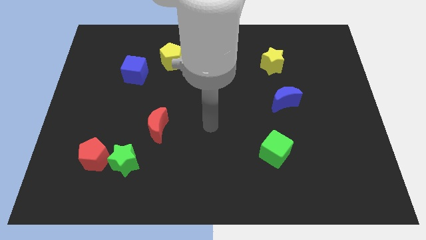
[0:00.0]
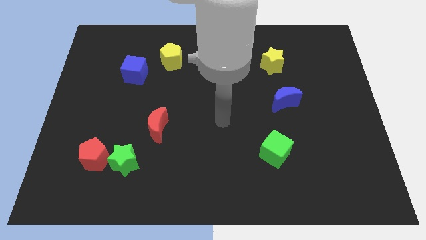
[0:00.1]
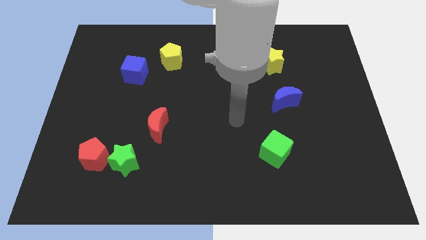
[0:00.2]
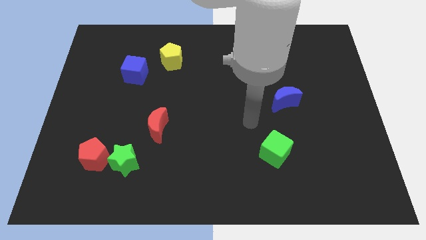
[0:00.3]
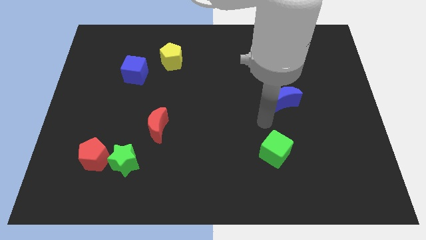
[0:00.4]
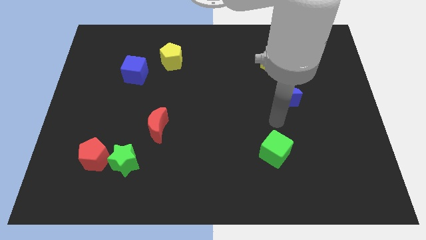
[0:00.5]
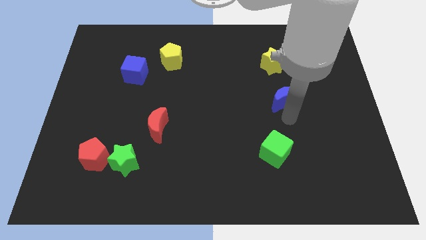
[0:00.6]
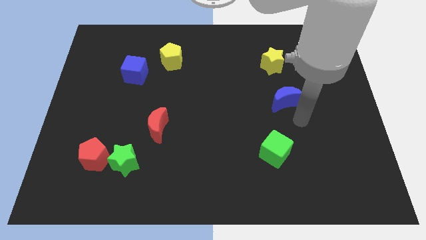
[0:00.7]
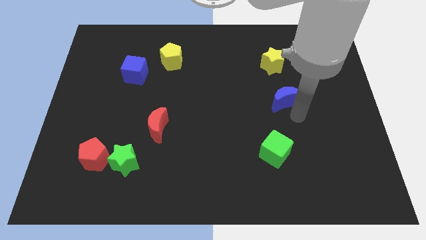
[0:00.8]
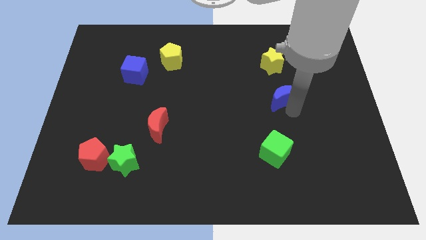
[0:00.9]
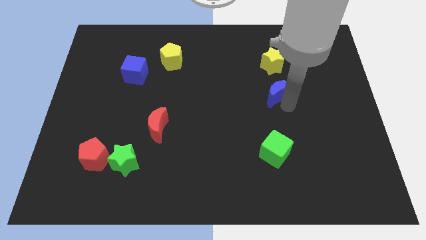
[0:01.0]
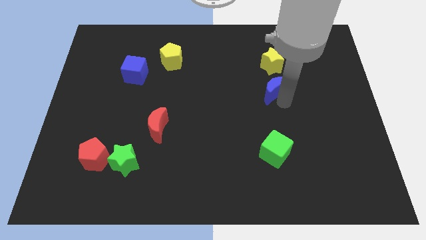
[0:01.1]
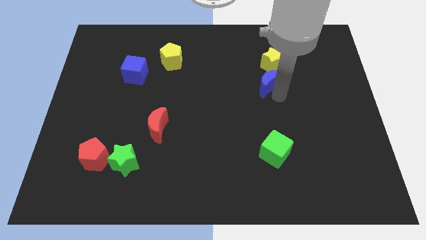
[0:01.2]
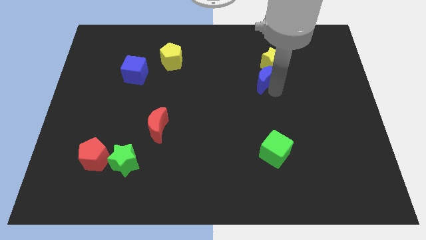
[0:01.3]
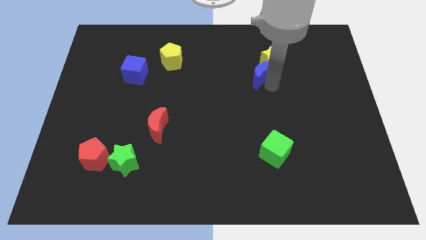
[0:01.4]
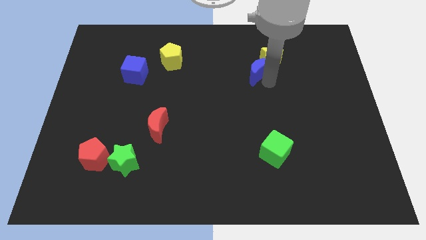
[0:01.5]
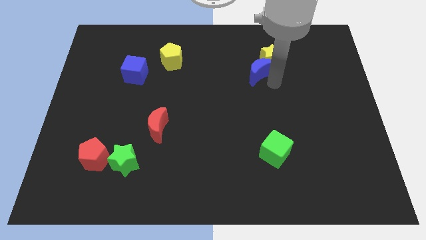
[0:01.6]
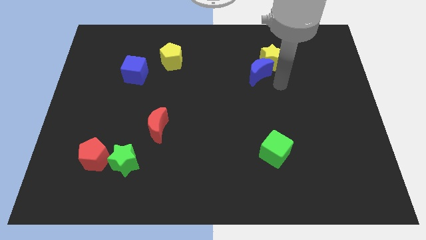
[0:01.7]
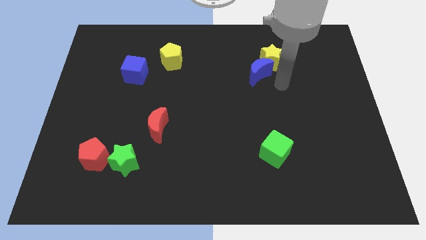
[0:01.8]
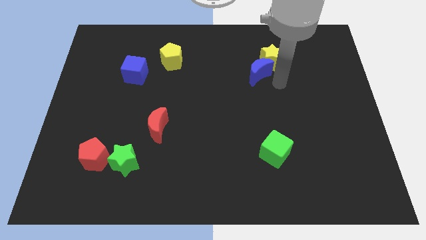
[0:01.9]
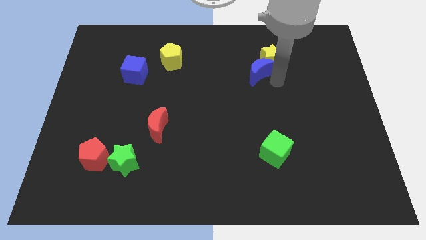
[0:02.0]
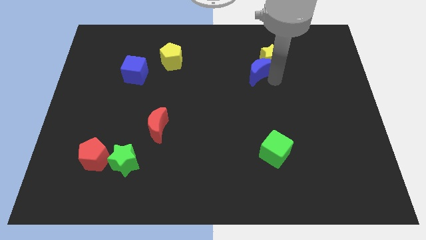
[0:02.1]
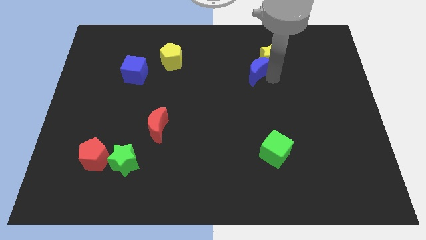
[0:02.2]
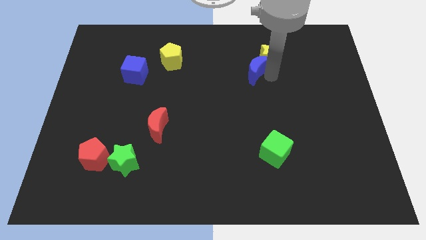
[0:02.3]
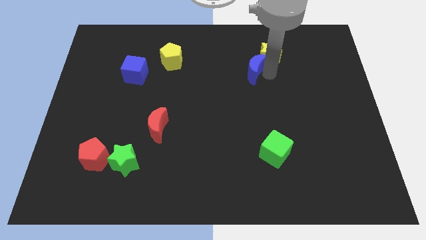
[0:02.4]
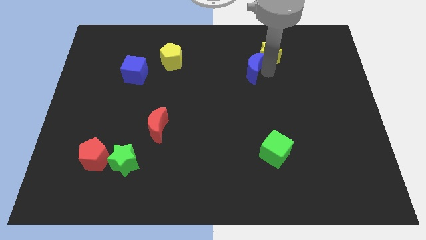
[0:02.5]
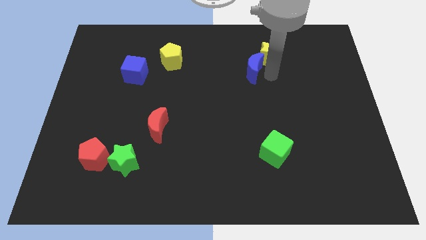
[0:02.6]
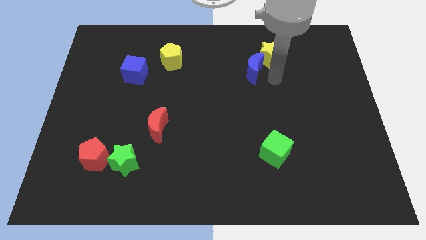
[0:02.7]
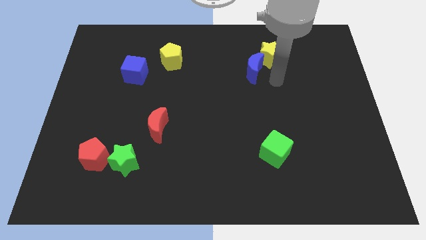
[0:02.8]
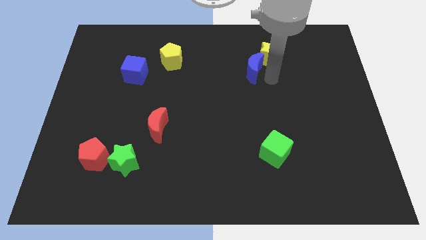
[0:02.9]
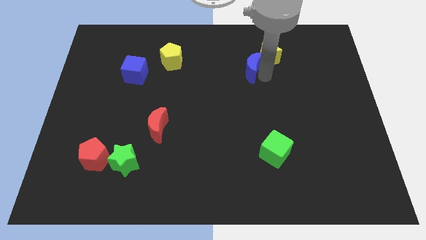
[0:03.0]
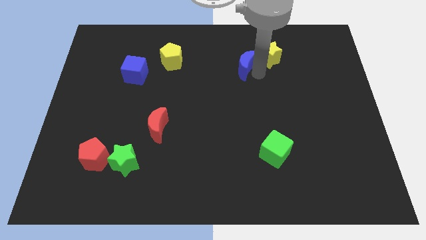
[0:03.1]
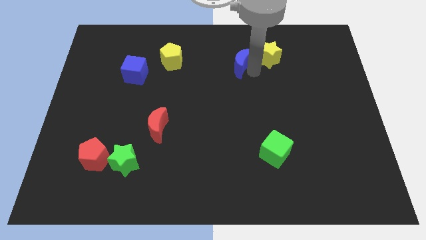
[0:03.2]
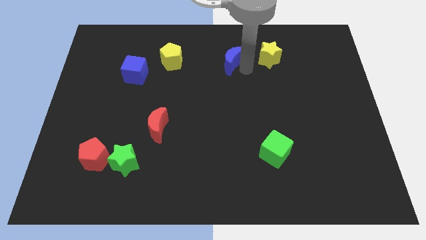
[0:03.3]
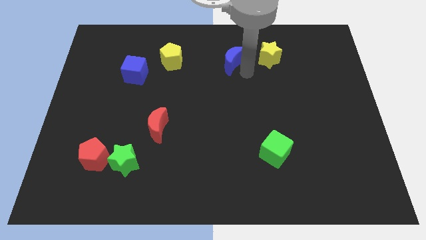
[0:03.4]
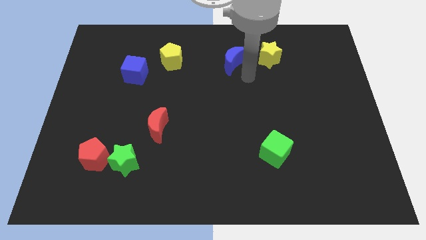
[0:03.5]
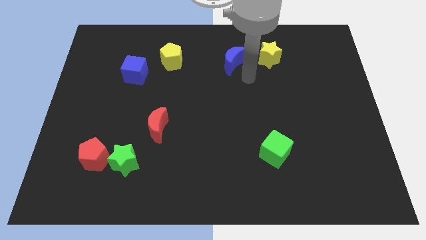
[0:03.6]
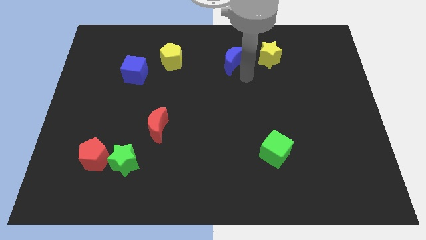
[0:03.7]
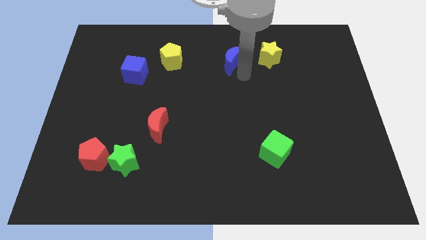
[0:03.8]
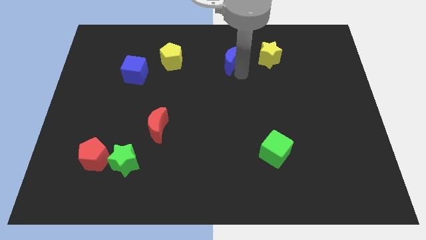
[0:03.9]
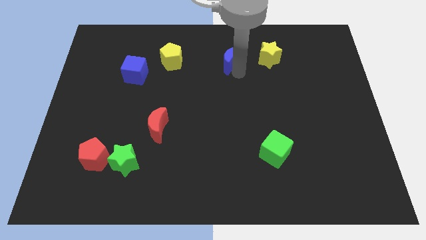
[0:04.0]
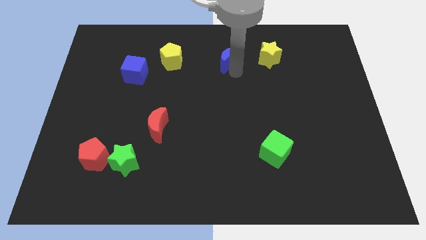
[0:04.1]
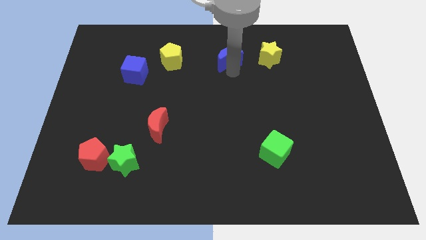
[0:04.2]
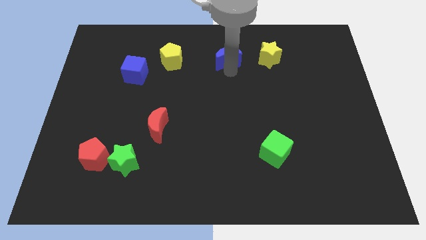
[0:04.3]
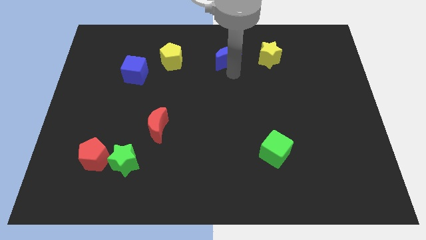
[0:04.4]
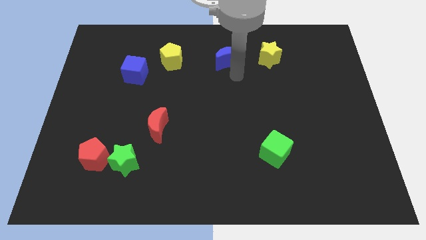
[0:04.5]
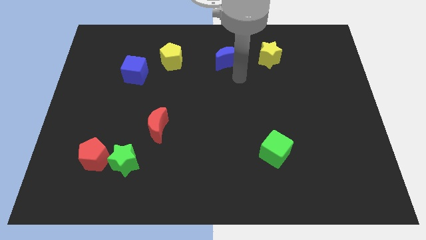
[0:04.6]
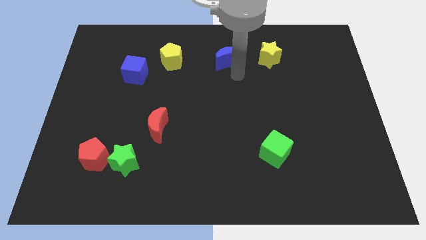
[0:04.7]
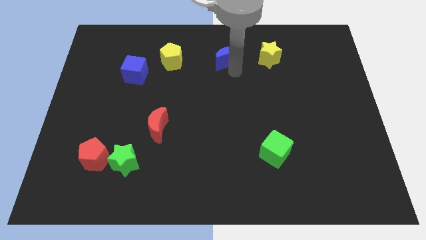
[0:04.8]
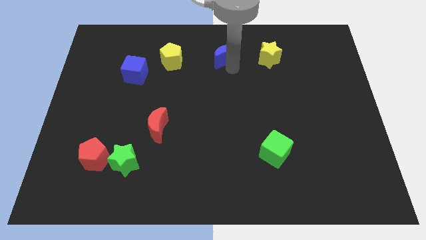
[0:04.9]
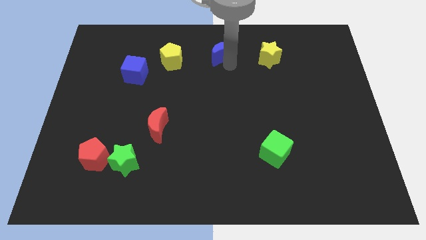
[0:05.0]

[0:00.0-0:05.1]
put the blue moon to the top side

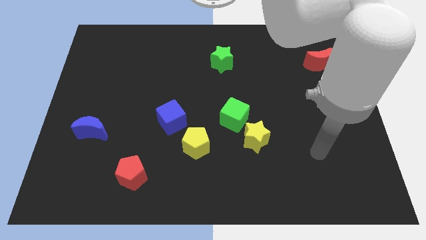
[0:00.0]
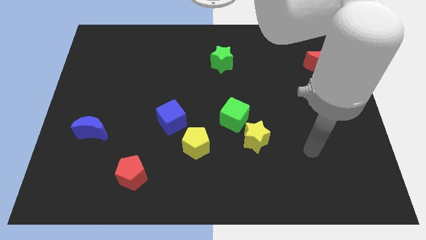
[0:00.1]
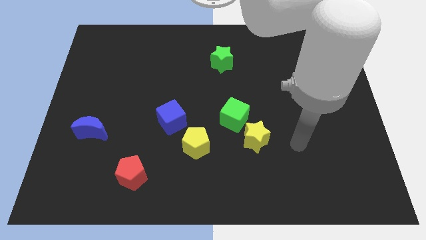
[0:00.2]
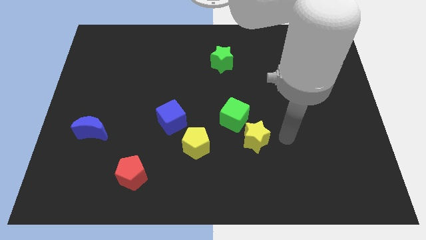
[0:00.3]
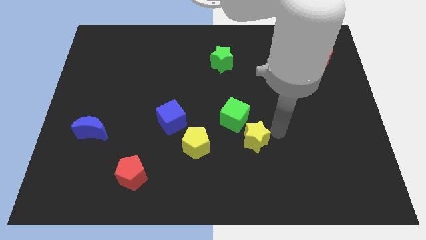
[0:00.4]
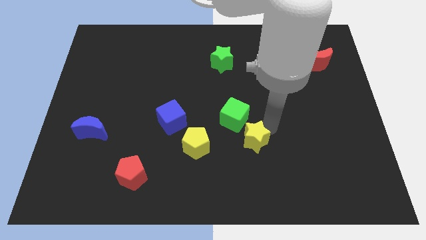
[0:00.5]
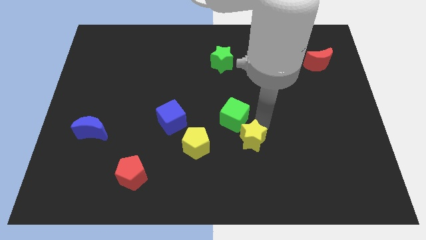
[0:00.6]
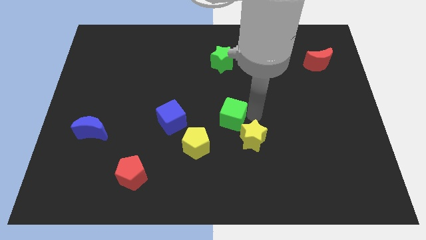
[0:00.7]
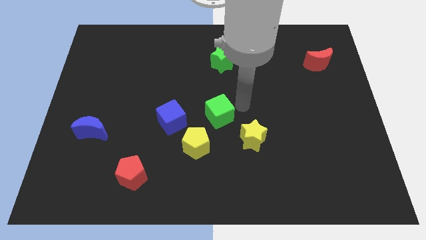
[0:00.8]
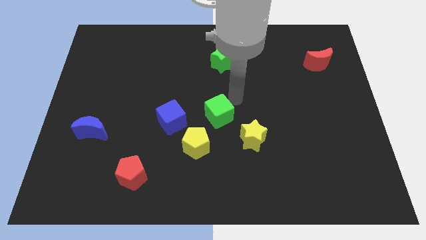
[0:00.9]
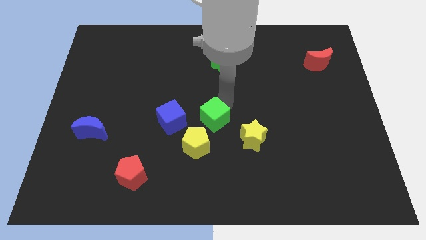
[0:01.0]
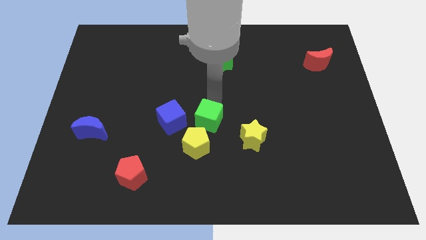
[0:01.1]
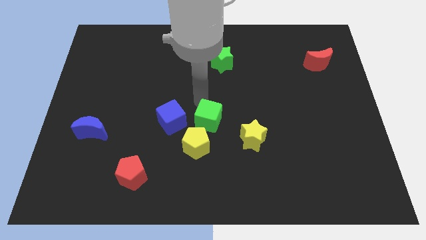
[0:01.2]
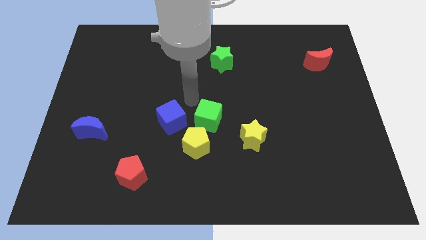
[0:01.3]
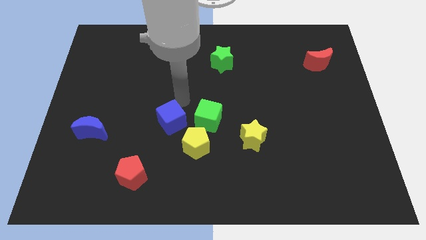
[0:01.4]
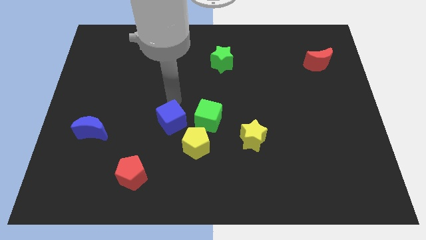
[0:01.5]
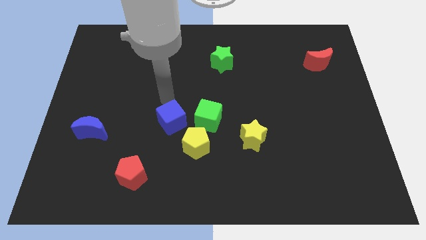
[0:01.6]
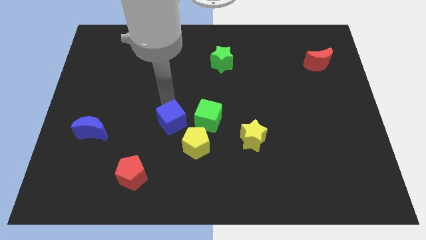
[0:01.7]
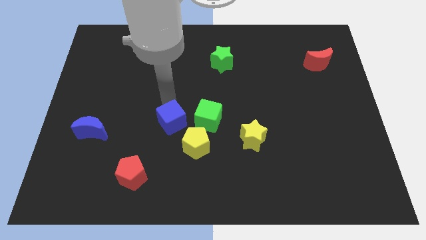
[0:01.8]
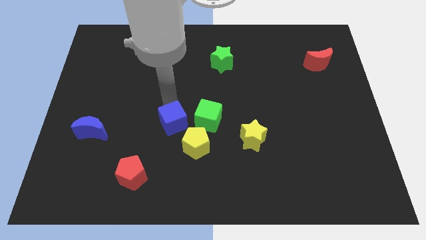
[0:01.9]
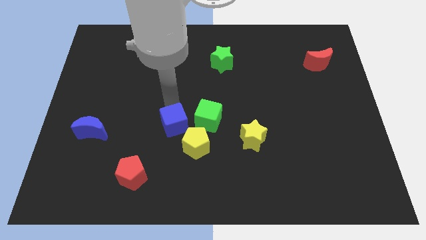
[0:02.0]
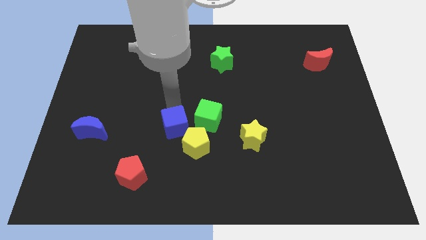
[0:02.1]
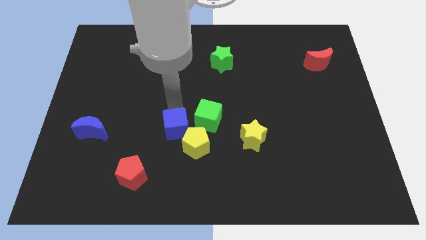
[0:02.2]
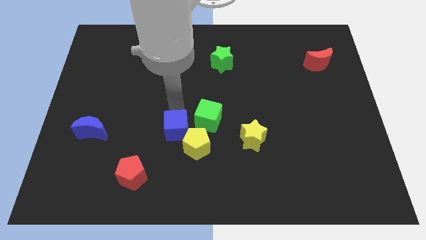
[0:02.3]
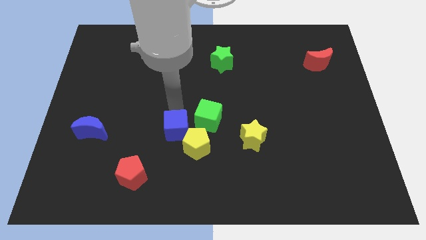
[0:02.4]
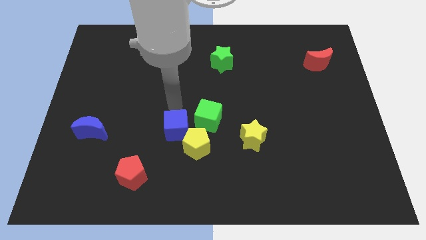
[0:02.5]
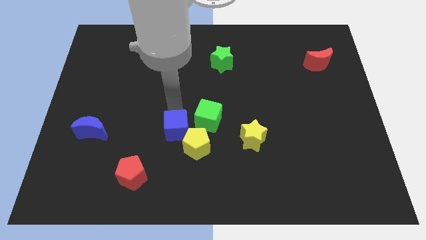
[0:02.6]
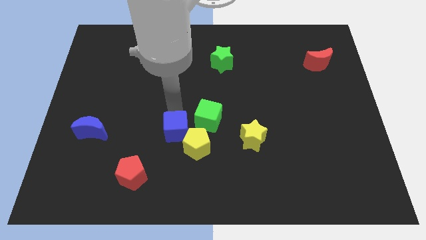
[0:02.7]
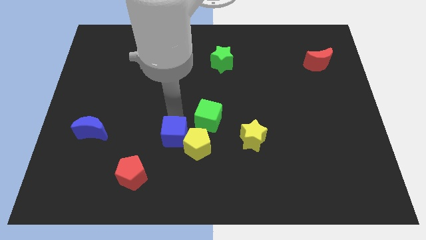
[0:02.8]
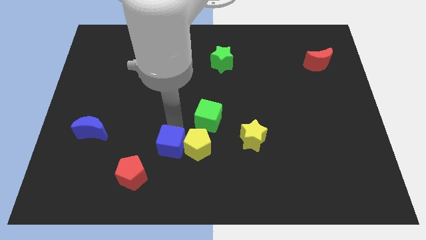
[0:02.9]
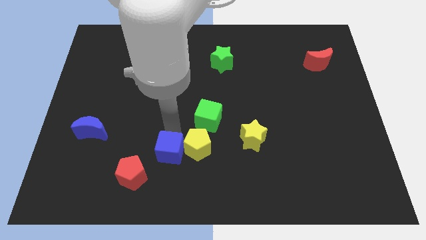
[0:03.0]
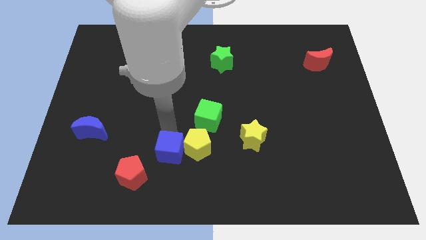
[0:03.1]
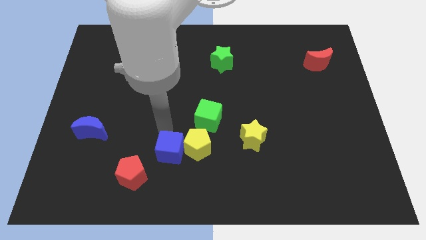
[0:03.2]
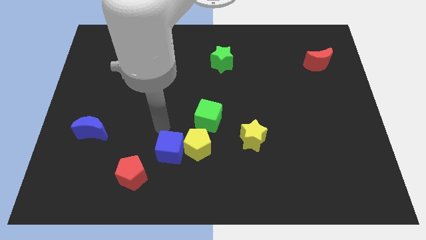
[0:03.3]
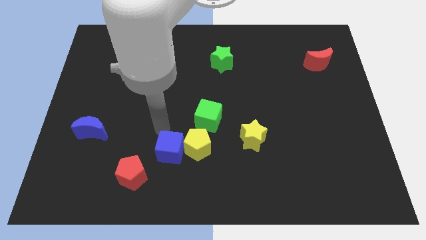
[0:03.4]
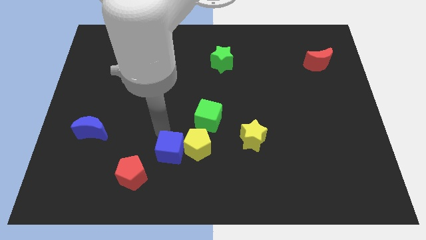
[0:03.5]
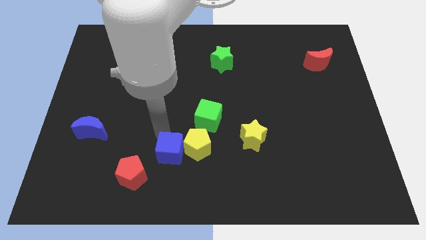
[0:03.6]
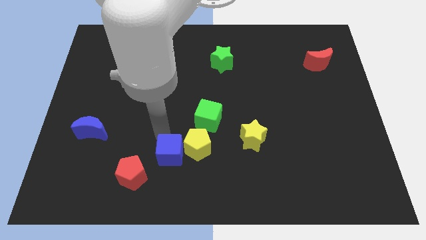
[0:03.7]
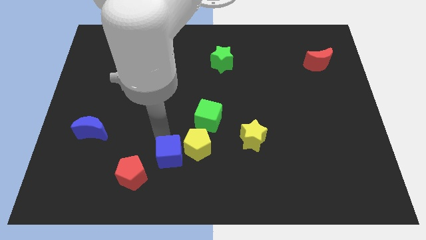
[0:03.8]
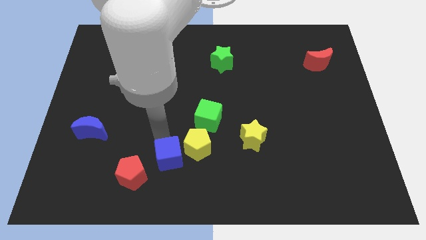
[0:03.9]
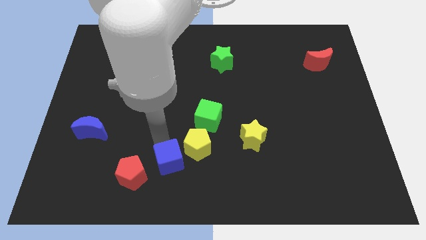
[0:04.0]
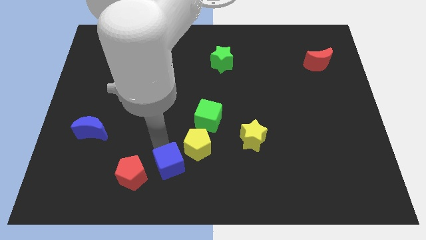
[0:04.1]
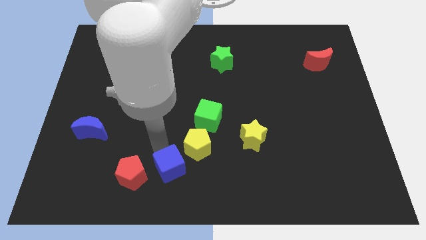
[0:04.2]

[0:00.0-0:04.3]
slide the blue cube to the bottom side
